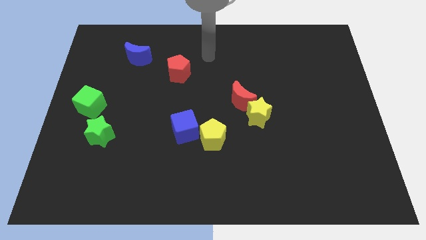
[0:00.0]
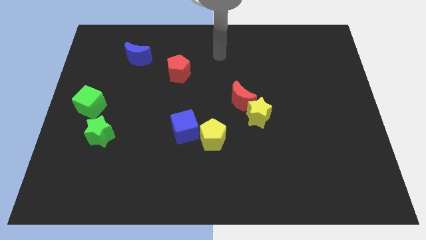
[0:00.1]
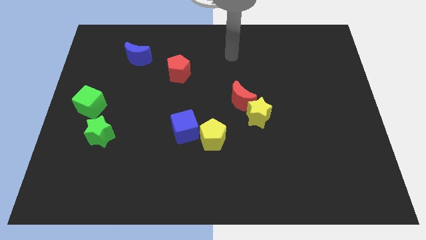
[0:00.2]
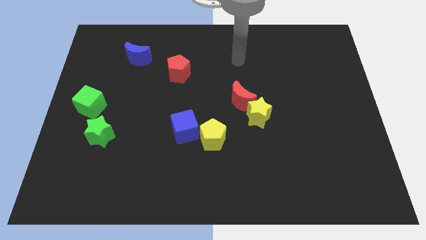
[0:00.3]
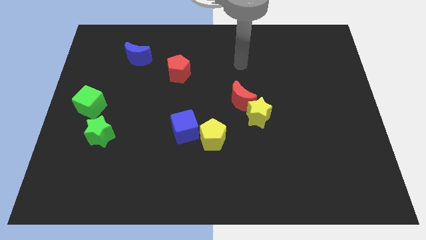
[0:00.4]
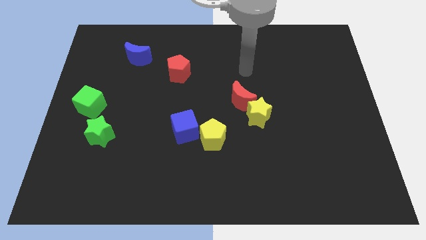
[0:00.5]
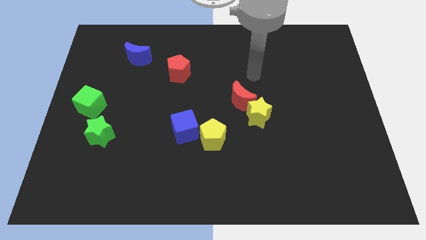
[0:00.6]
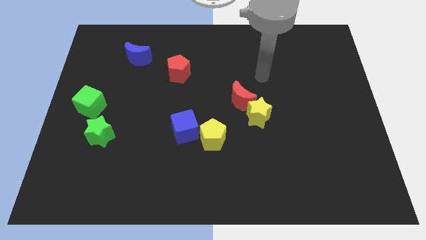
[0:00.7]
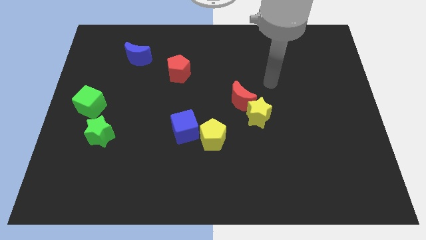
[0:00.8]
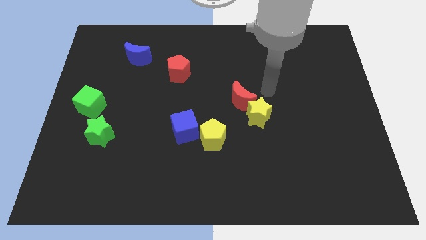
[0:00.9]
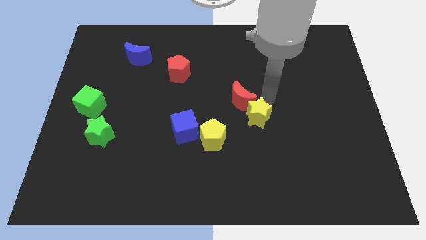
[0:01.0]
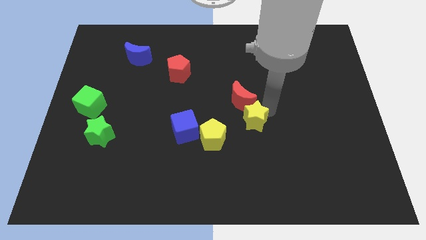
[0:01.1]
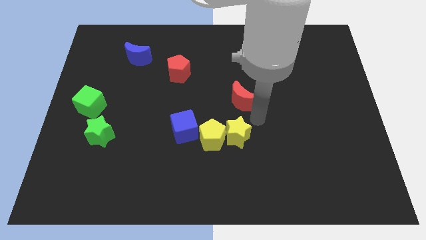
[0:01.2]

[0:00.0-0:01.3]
pull the red moon apart from the yellow star

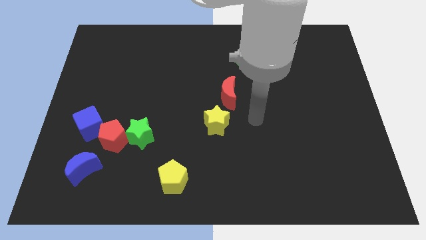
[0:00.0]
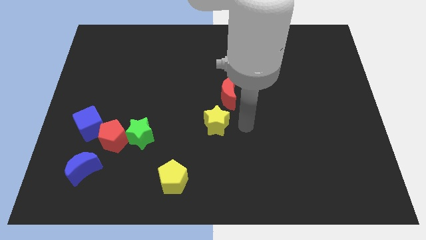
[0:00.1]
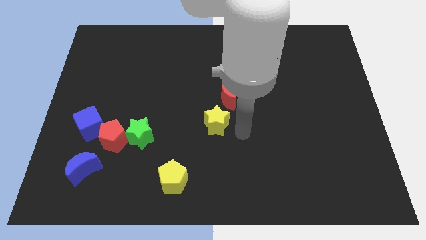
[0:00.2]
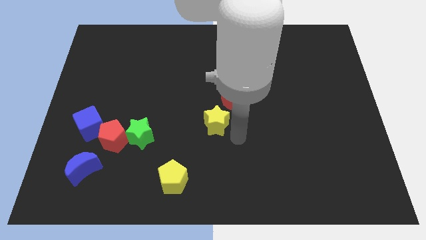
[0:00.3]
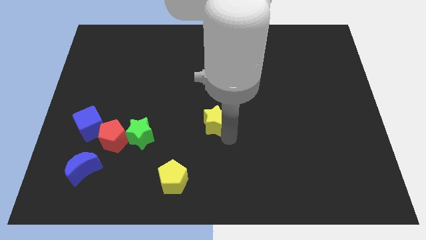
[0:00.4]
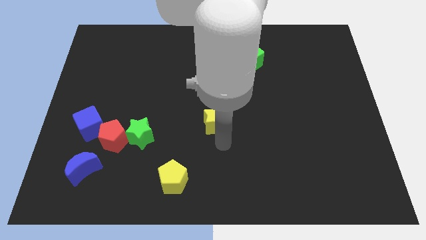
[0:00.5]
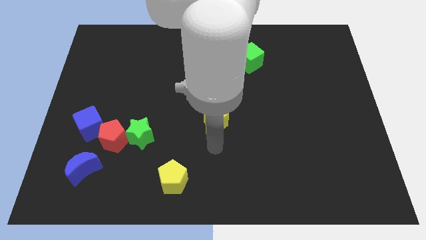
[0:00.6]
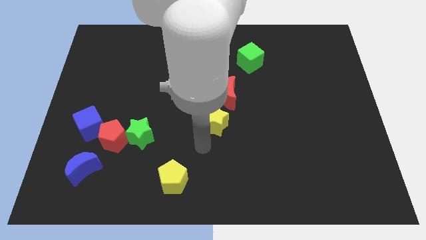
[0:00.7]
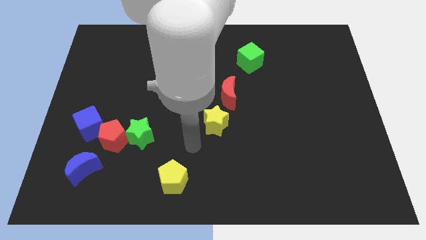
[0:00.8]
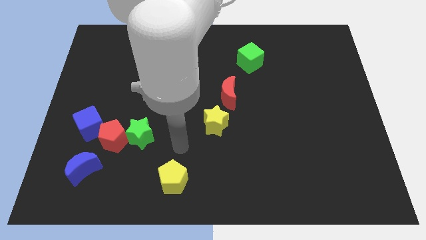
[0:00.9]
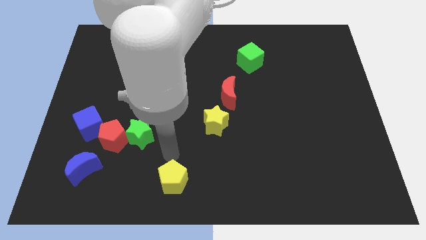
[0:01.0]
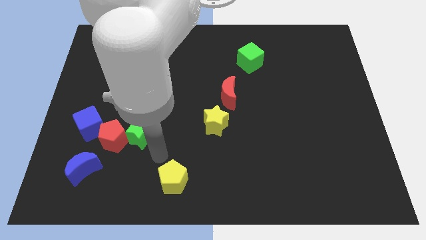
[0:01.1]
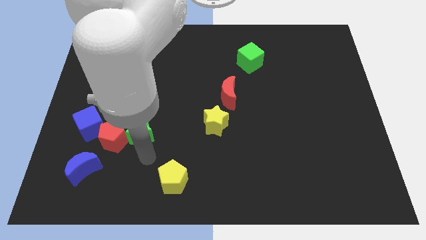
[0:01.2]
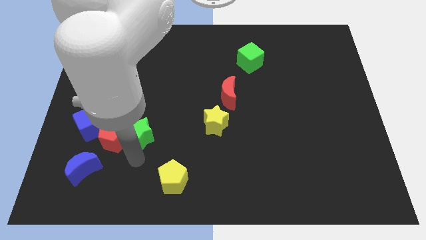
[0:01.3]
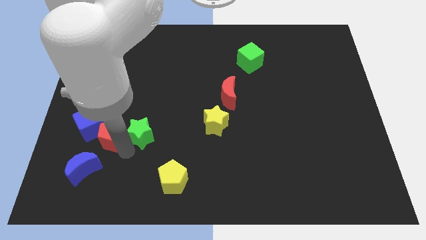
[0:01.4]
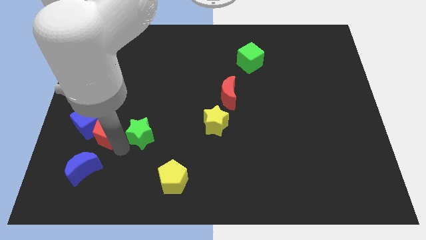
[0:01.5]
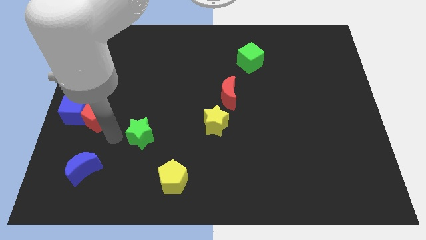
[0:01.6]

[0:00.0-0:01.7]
pull the green star apart from the red pentagon

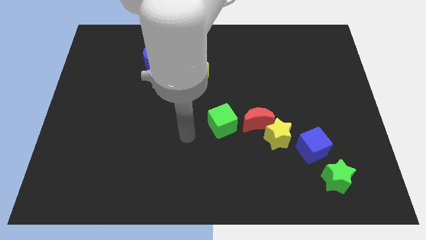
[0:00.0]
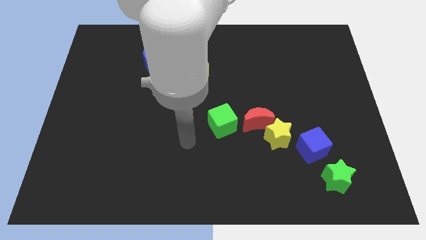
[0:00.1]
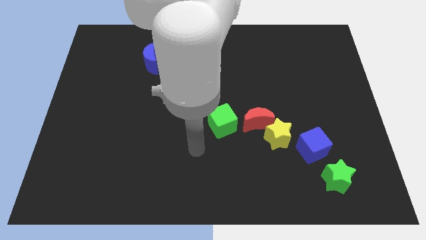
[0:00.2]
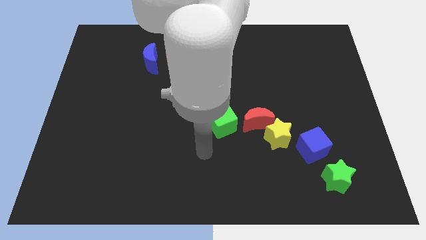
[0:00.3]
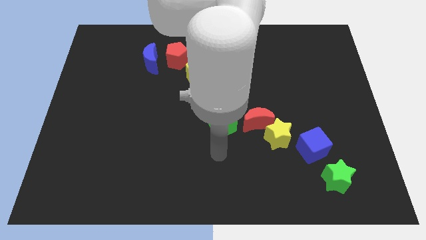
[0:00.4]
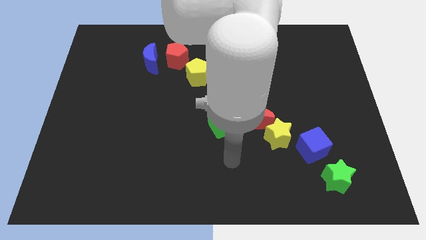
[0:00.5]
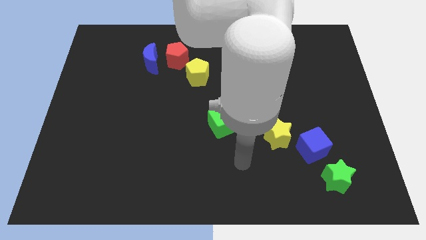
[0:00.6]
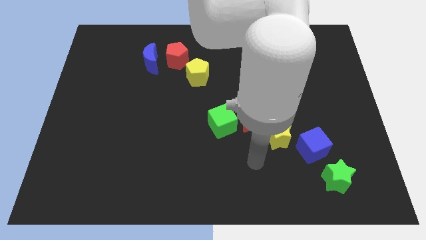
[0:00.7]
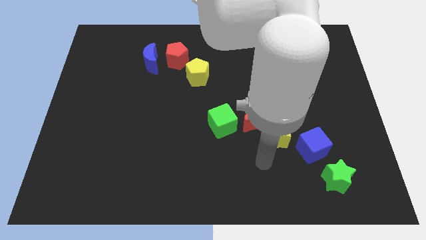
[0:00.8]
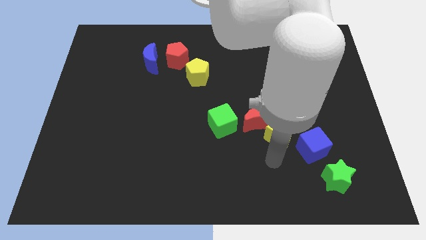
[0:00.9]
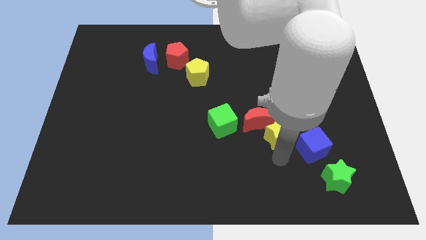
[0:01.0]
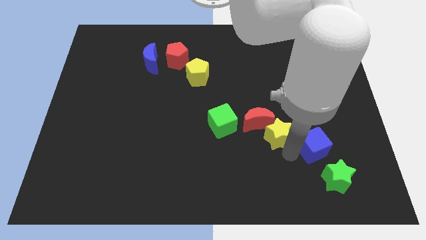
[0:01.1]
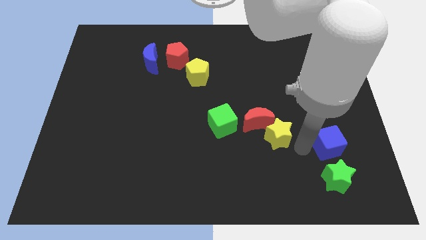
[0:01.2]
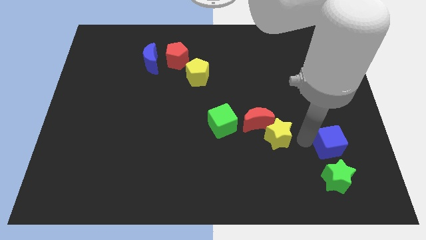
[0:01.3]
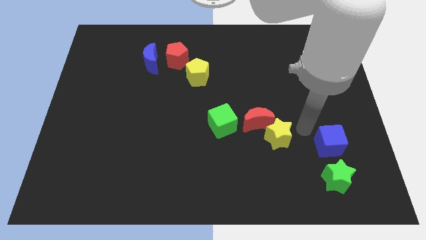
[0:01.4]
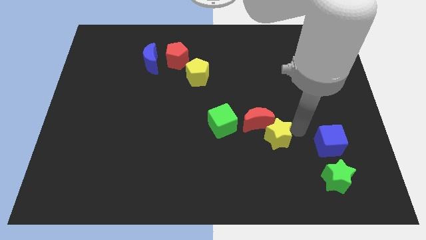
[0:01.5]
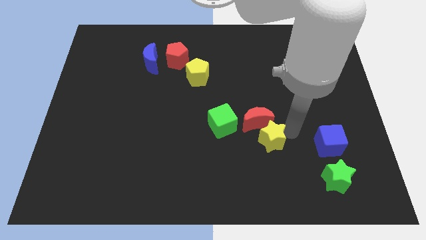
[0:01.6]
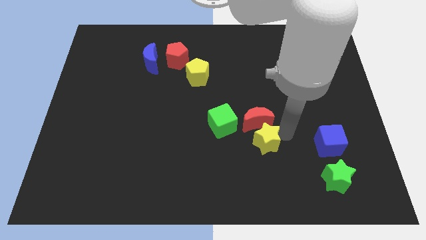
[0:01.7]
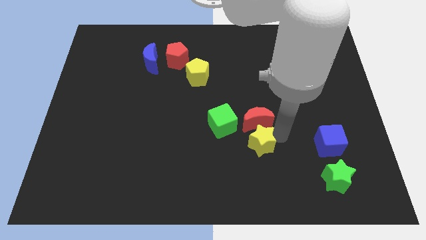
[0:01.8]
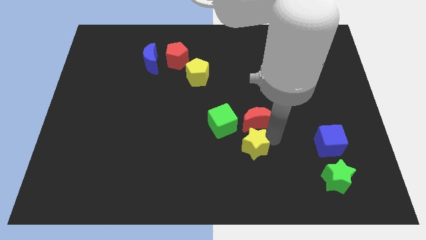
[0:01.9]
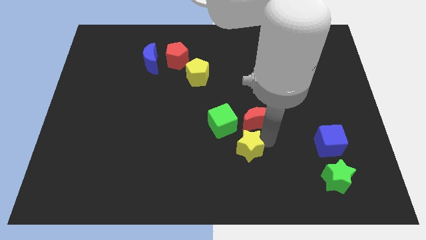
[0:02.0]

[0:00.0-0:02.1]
pull the yellow star apart from the red moon and blue cube

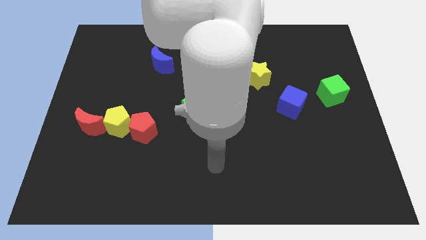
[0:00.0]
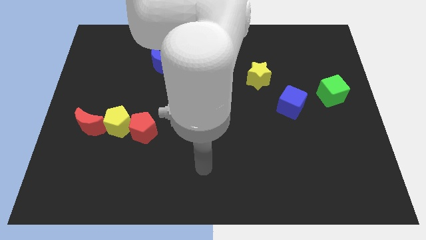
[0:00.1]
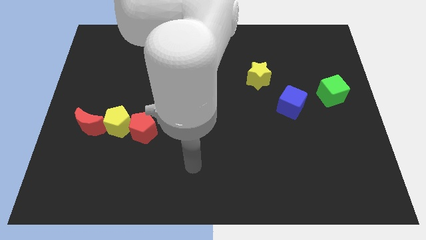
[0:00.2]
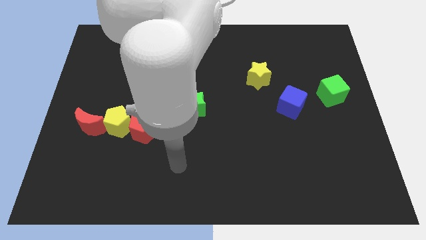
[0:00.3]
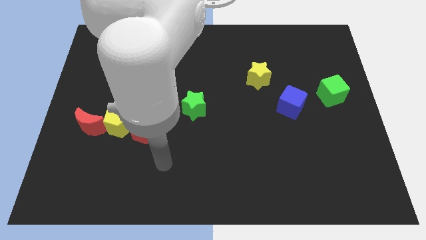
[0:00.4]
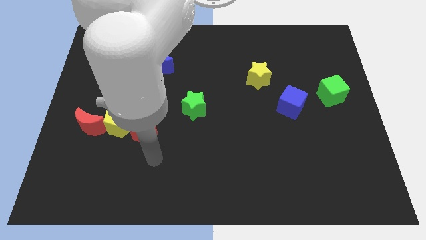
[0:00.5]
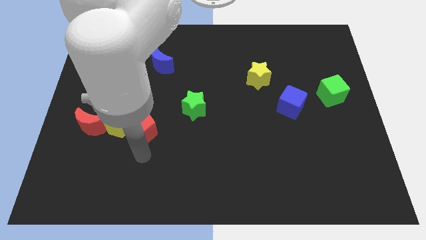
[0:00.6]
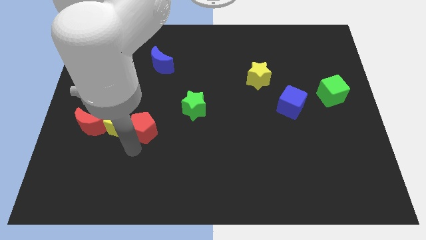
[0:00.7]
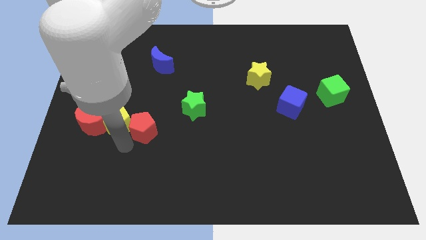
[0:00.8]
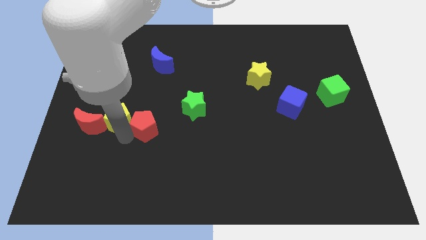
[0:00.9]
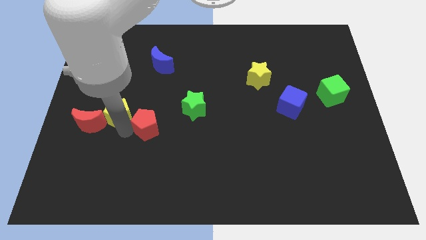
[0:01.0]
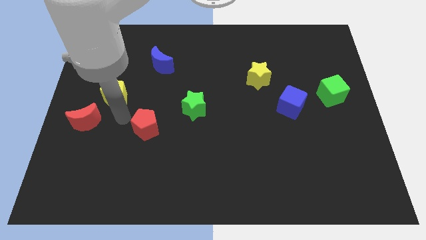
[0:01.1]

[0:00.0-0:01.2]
separate the red pentagon from the yellow pentagon

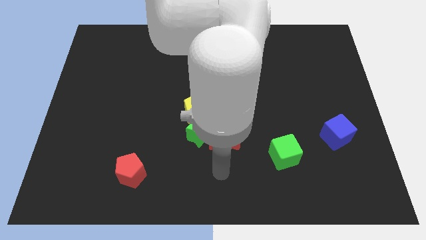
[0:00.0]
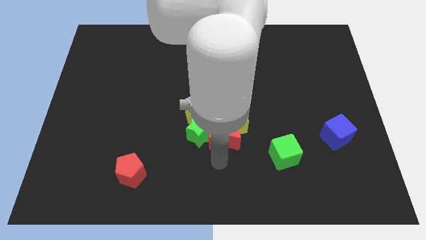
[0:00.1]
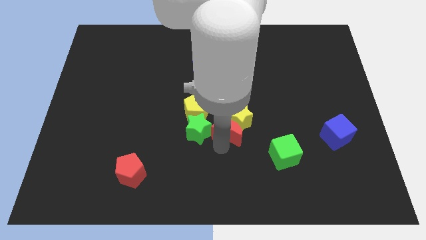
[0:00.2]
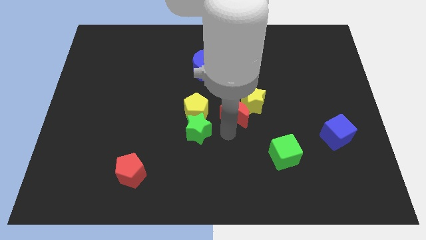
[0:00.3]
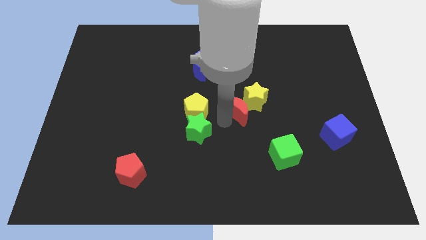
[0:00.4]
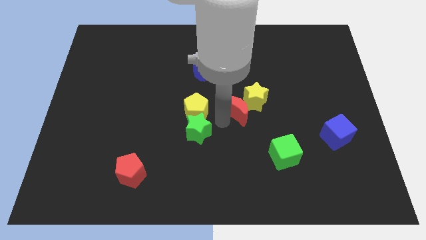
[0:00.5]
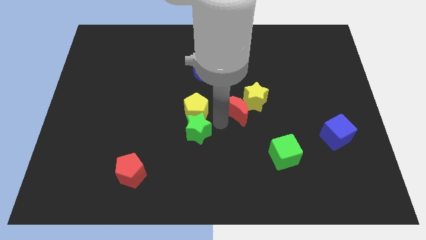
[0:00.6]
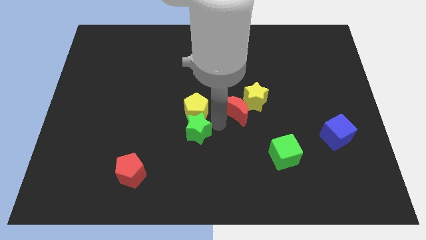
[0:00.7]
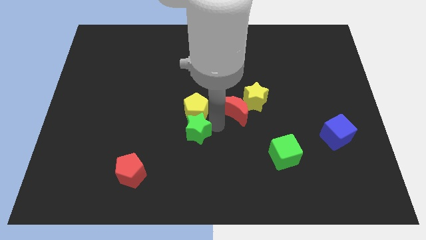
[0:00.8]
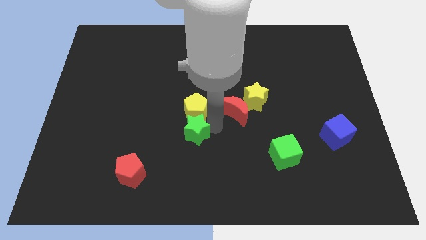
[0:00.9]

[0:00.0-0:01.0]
separate the green star from the red moon, yellow pentagon, and yellow star

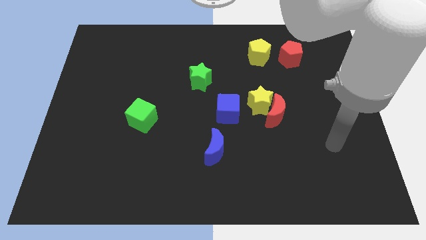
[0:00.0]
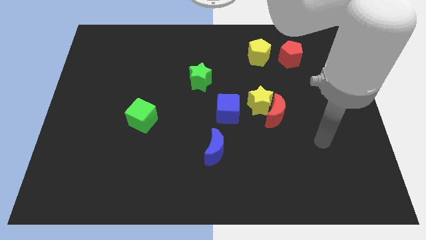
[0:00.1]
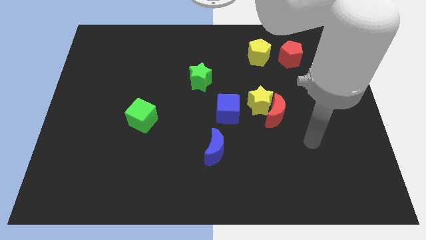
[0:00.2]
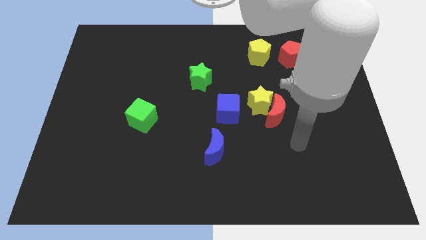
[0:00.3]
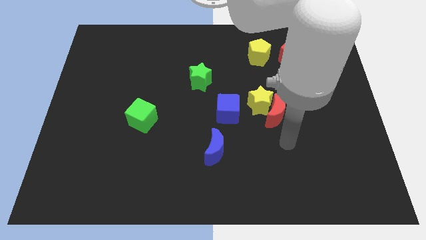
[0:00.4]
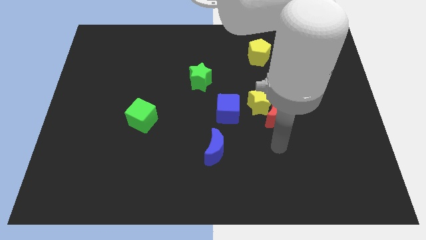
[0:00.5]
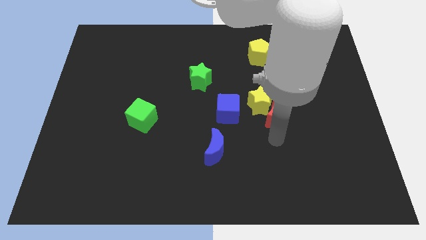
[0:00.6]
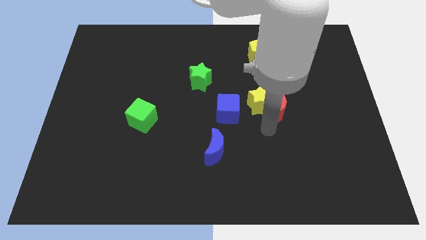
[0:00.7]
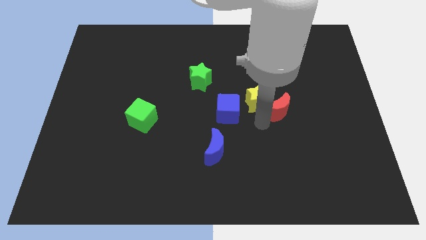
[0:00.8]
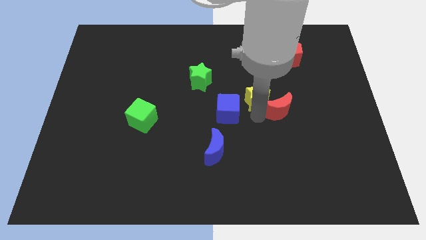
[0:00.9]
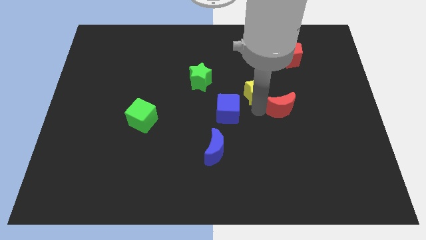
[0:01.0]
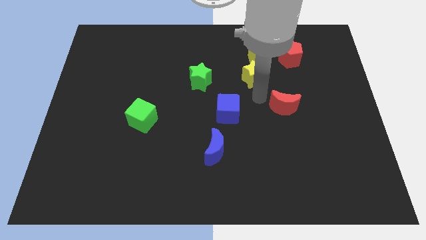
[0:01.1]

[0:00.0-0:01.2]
separate the red moon from the yellow star

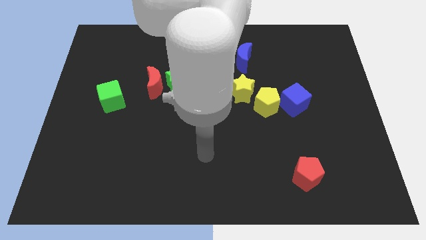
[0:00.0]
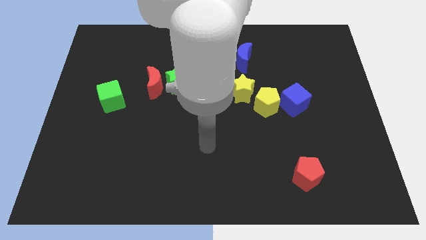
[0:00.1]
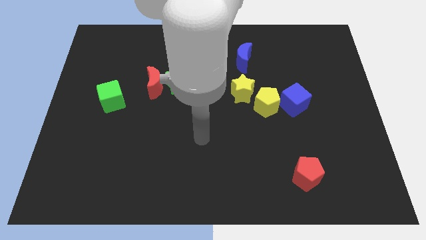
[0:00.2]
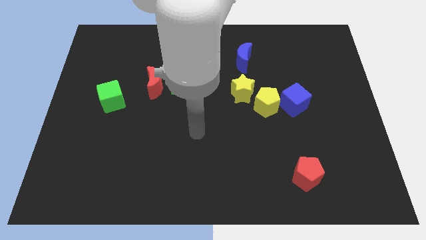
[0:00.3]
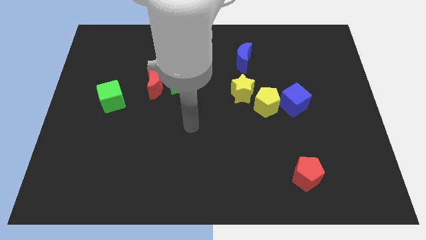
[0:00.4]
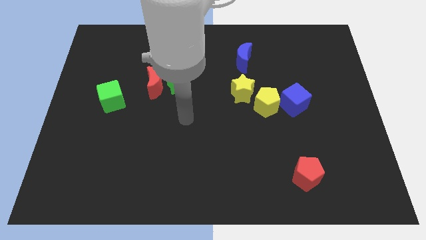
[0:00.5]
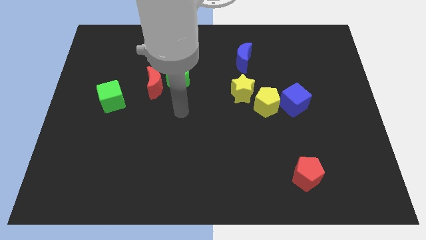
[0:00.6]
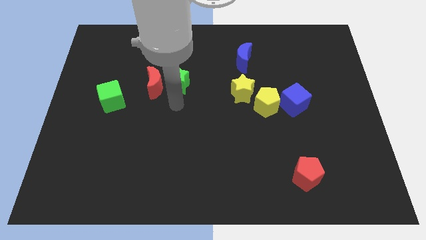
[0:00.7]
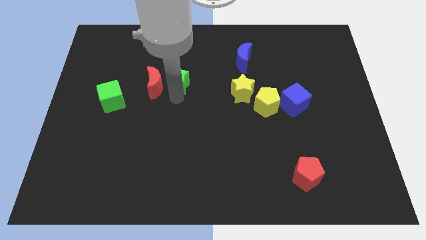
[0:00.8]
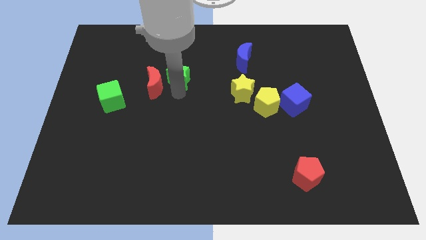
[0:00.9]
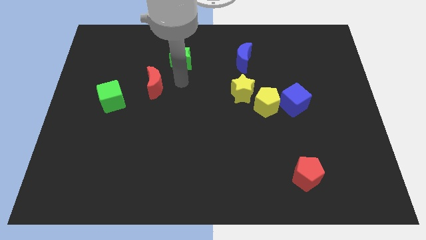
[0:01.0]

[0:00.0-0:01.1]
move the red moon away from the green star
